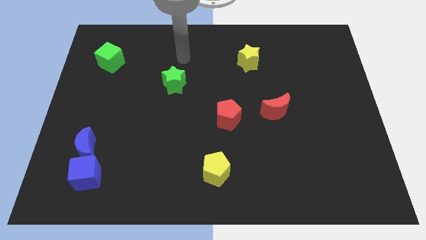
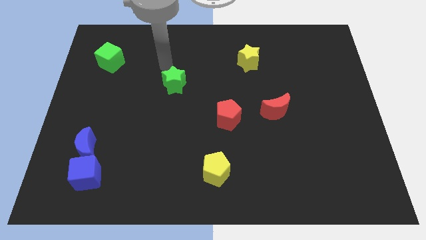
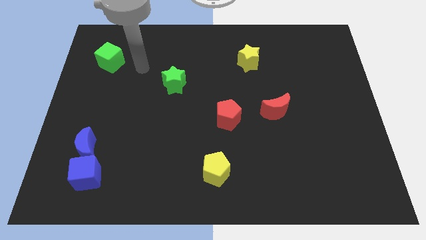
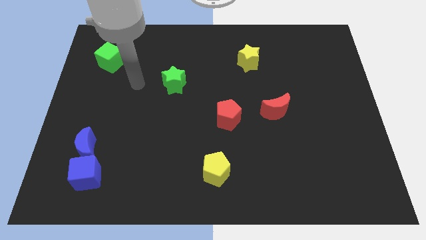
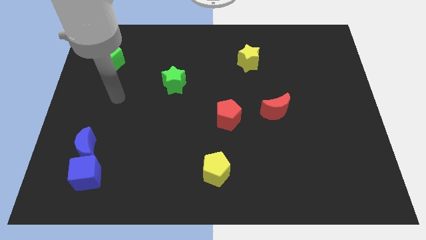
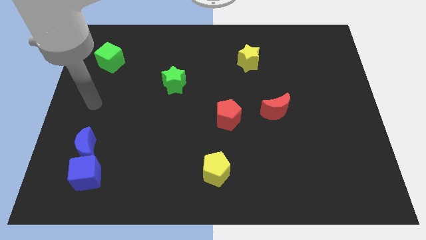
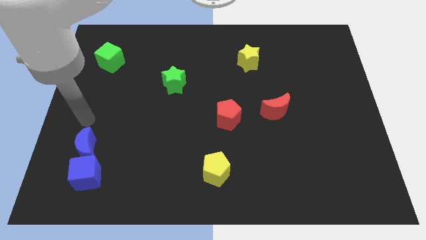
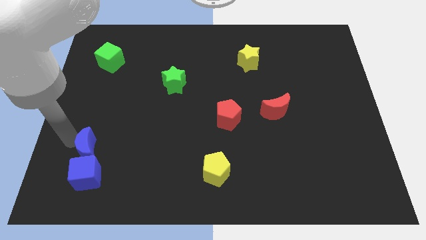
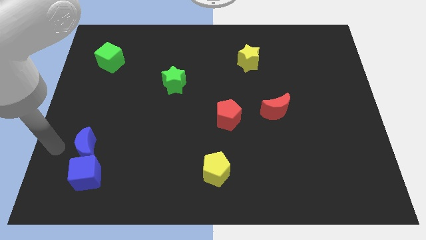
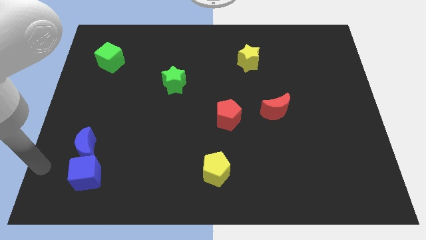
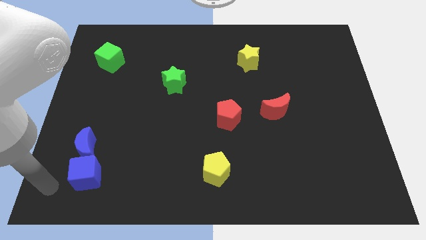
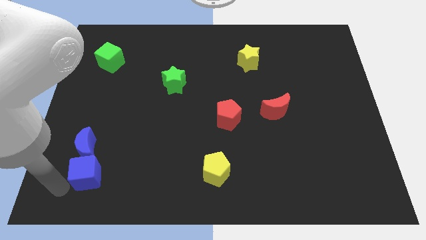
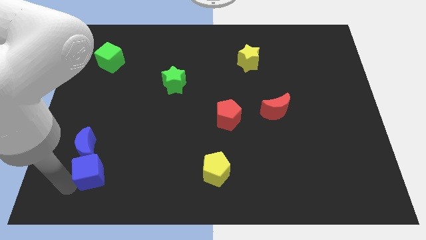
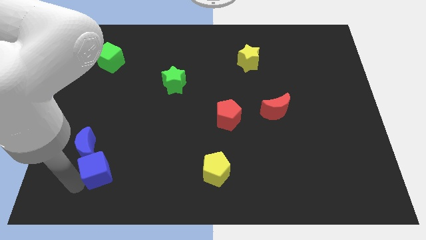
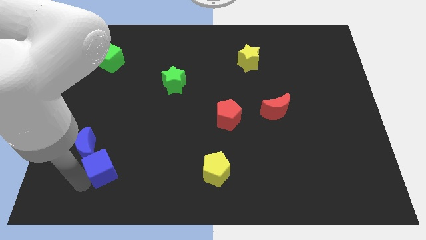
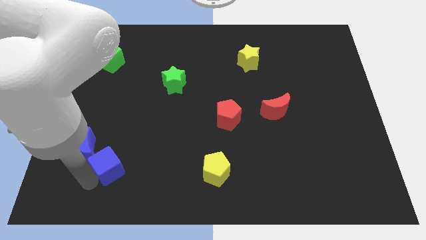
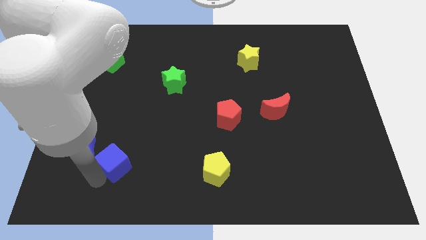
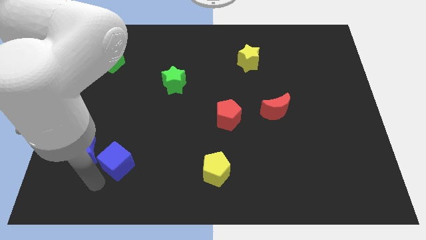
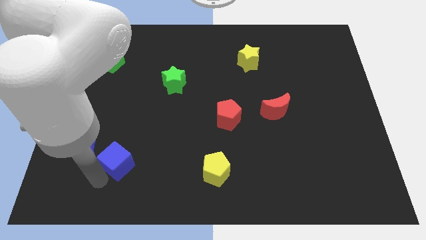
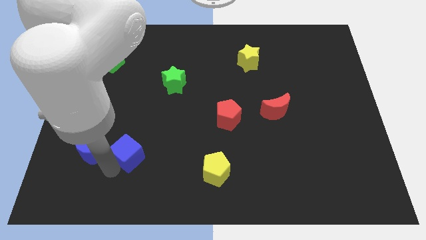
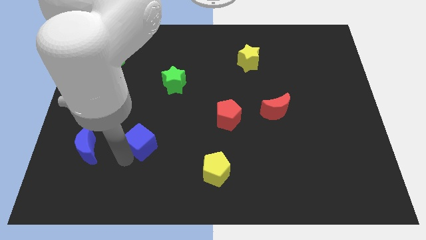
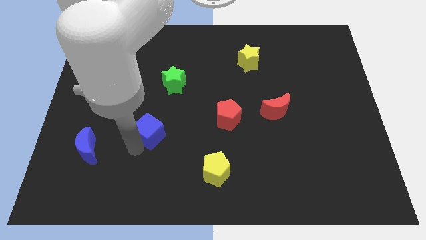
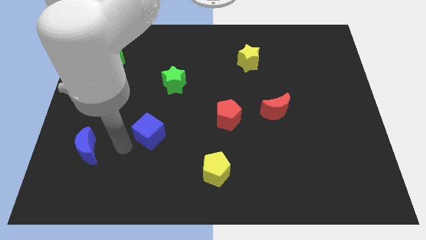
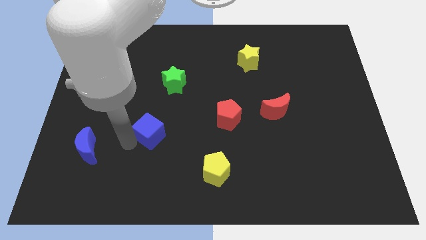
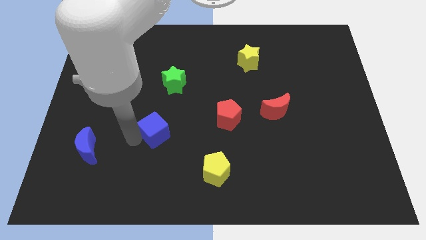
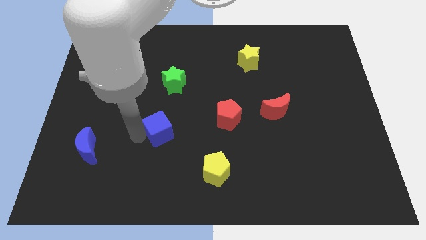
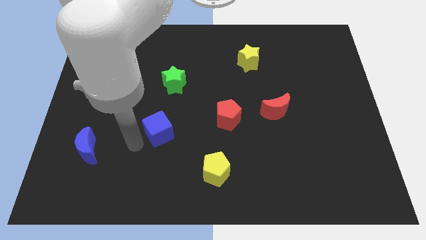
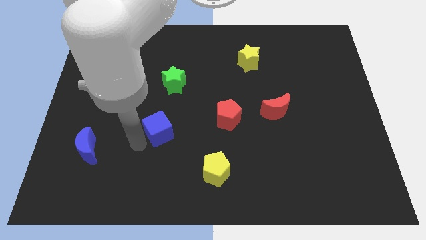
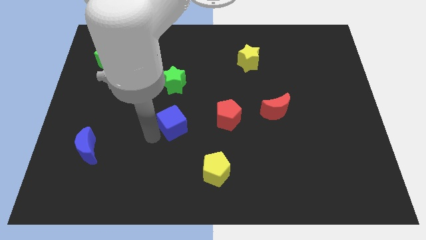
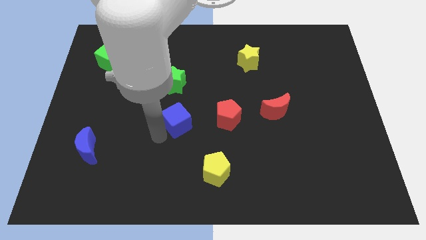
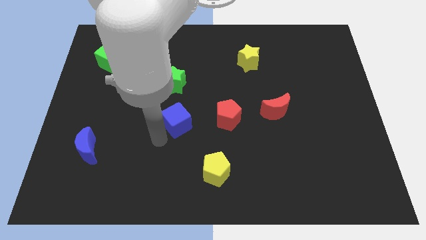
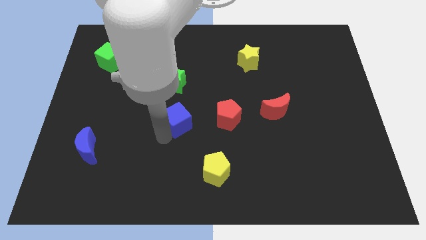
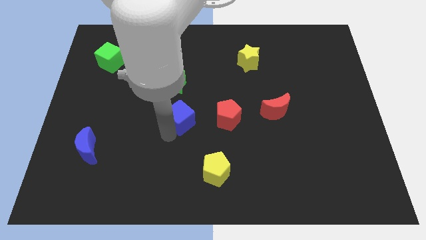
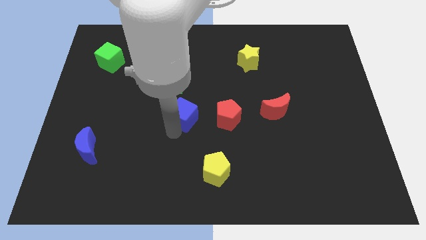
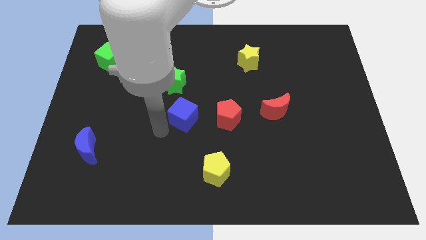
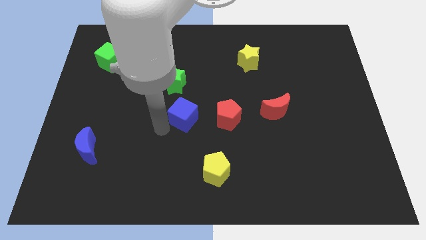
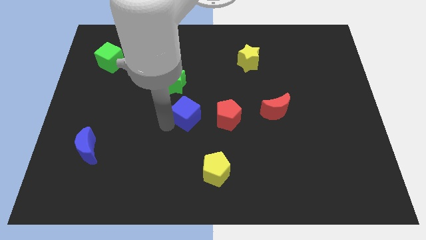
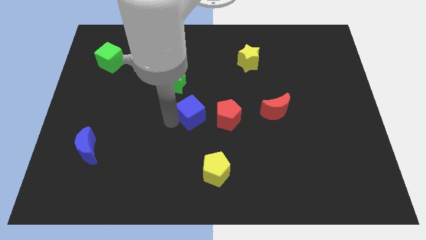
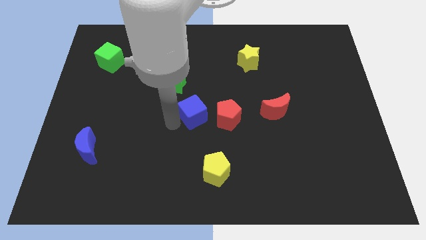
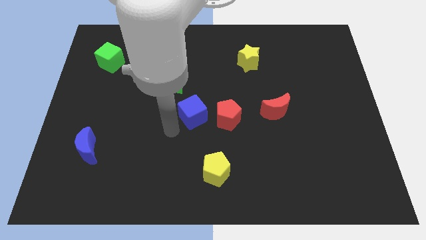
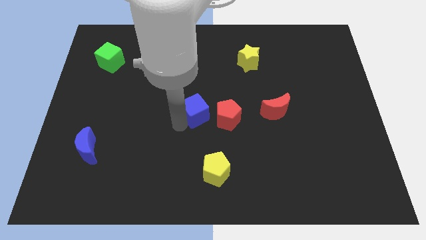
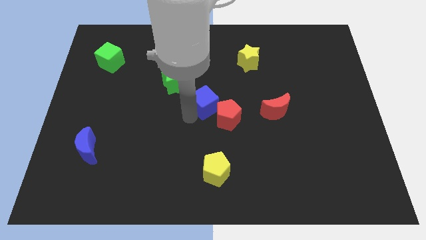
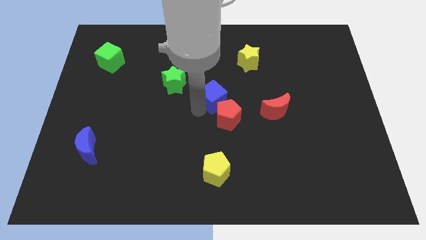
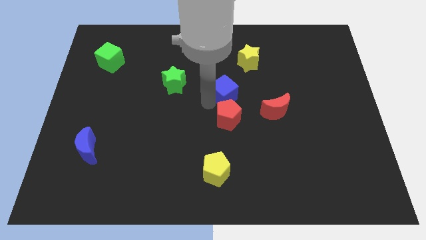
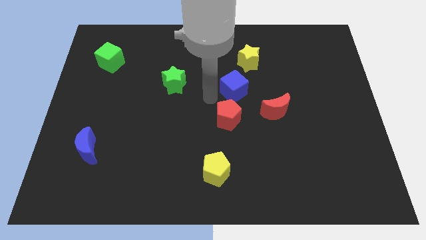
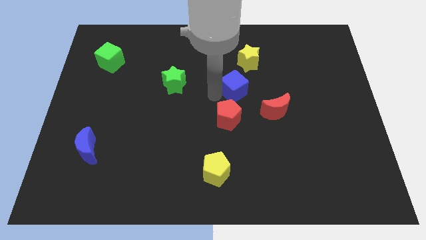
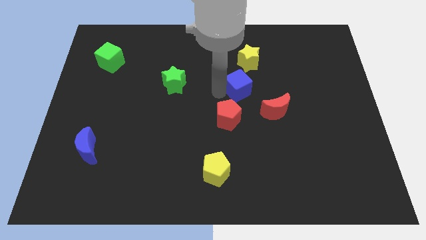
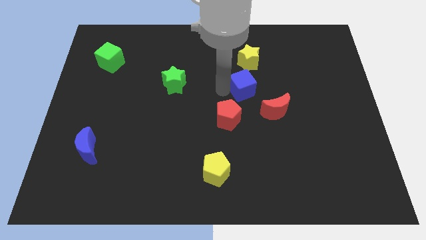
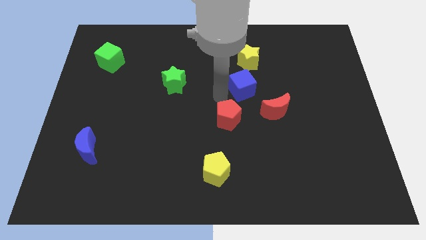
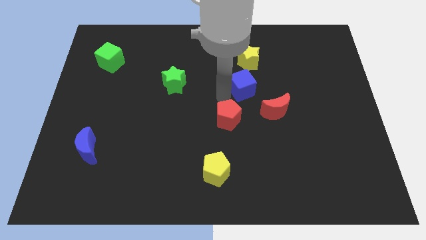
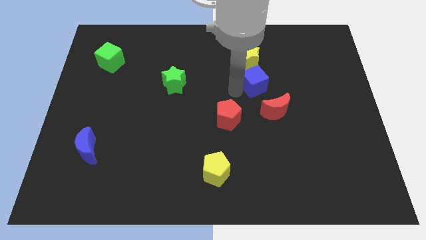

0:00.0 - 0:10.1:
slide the blue cube to the top of the red moon

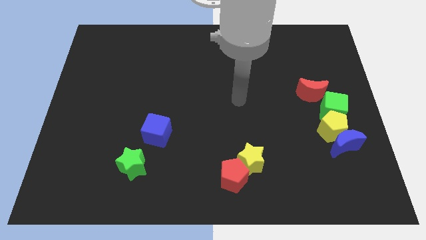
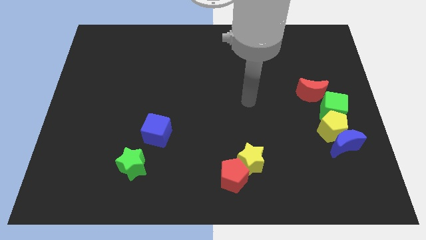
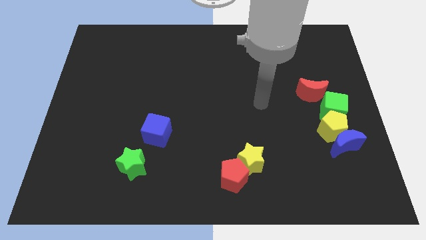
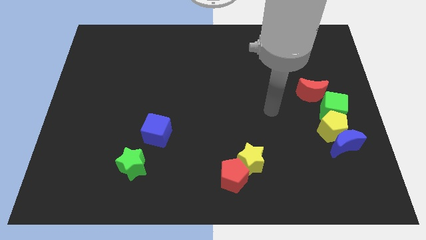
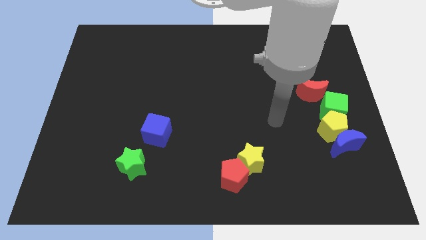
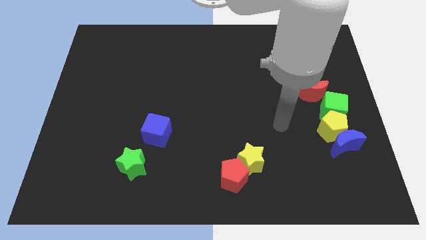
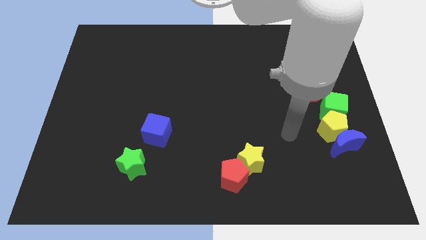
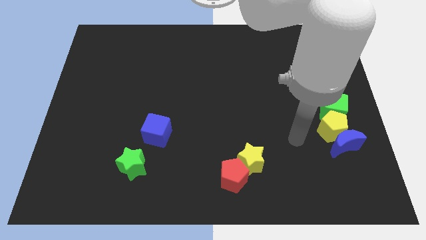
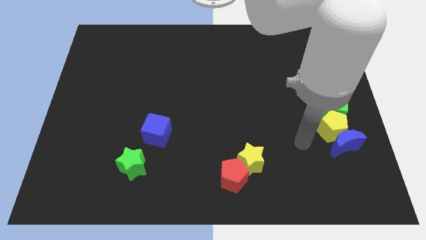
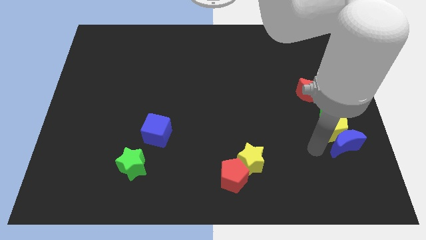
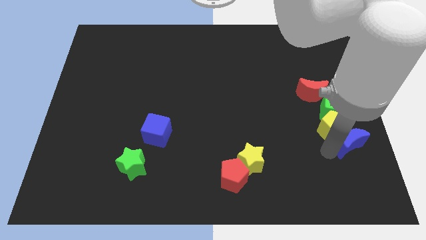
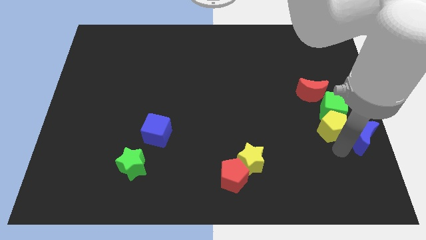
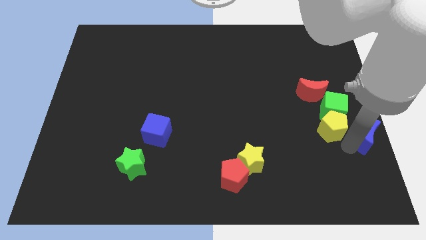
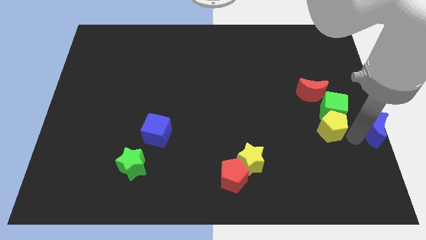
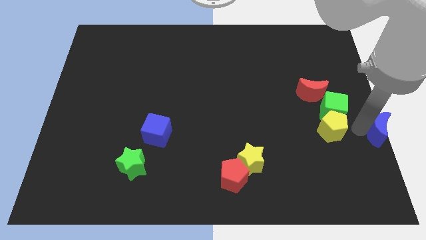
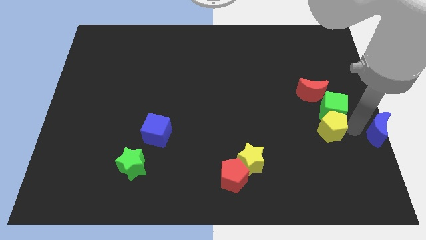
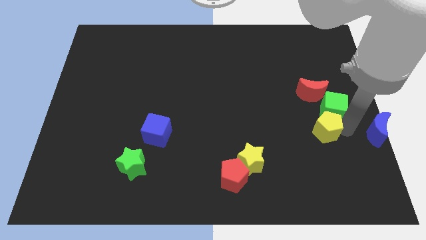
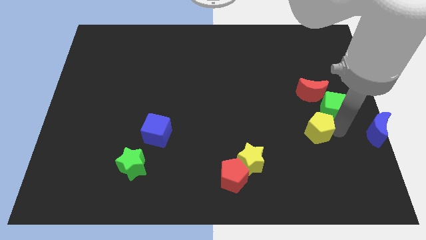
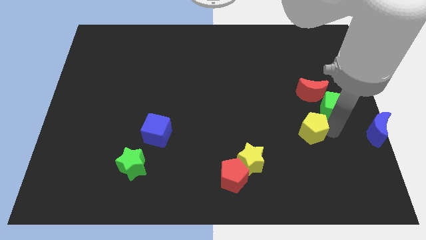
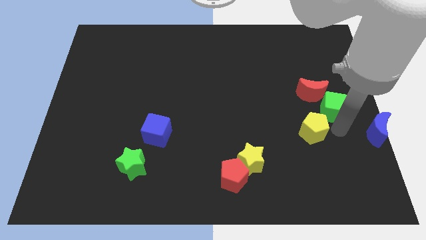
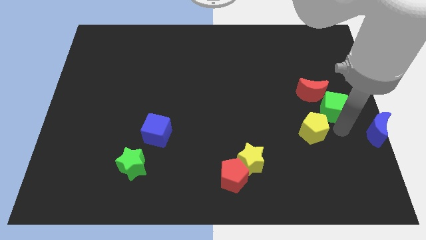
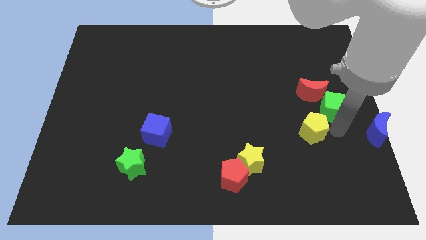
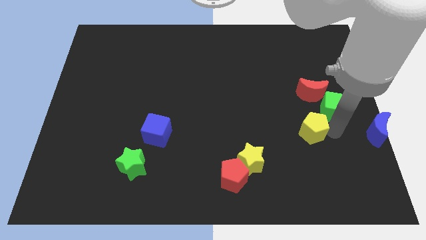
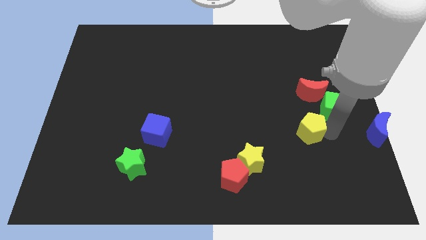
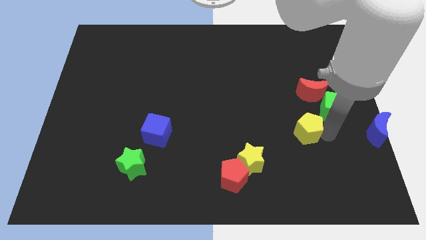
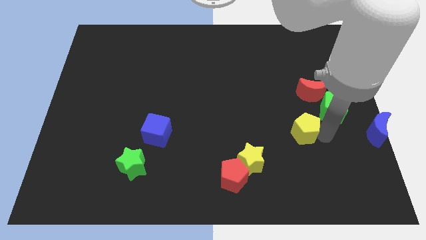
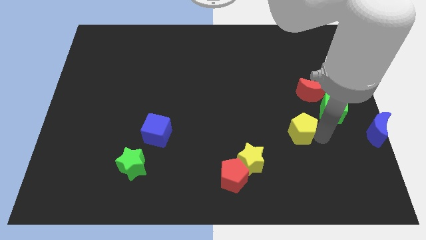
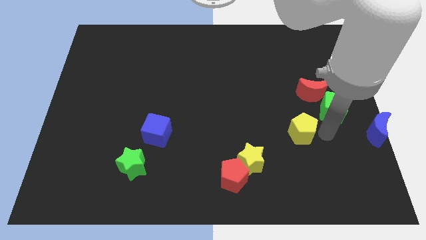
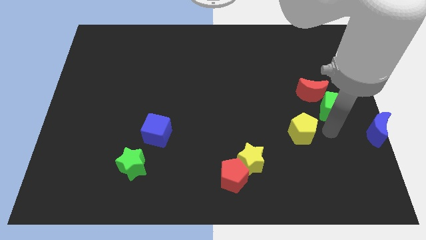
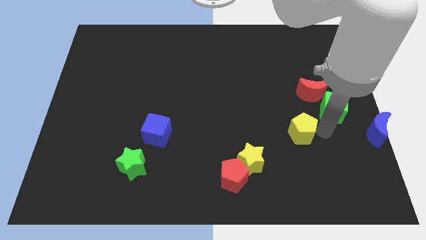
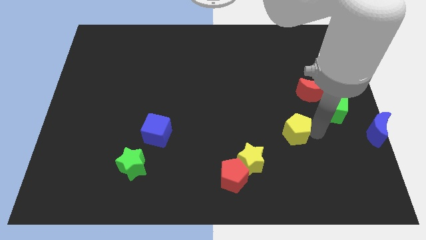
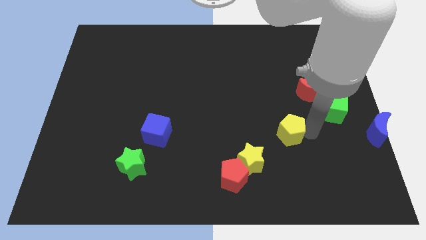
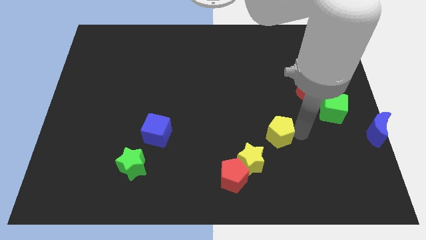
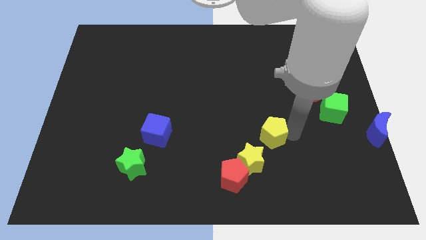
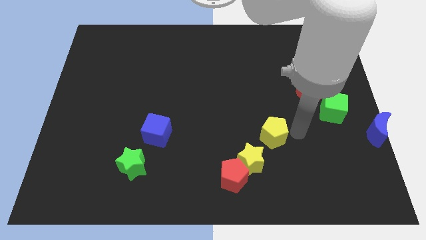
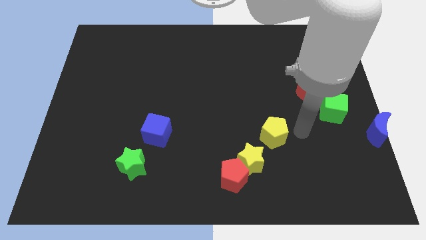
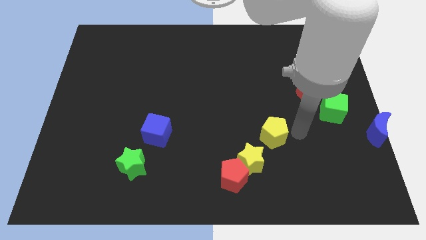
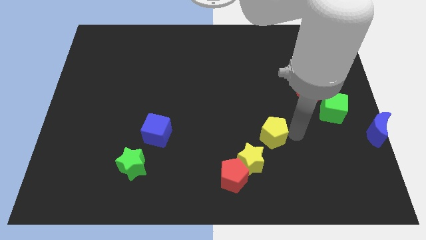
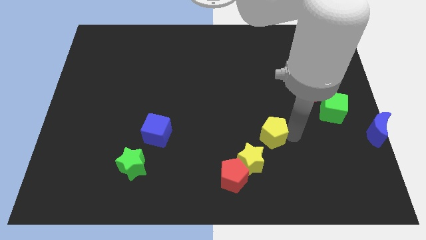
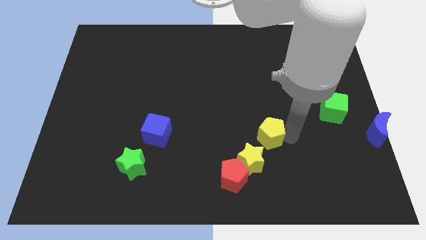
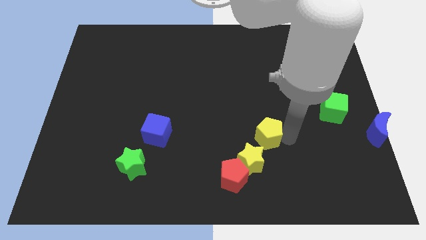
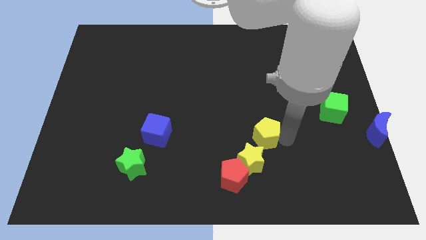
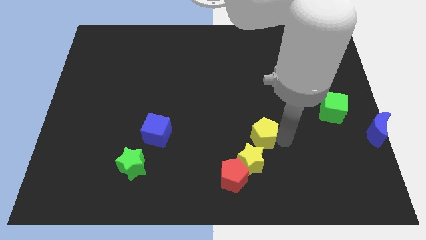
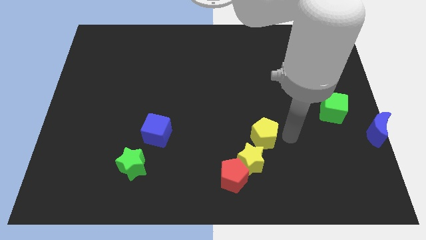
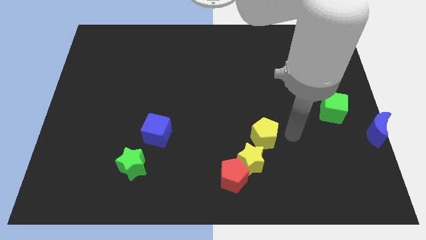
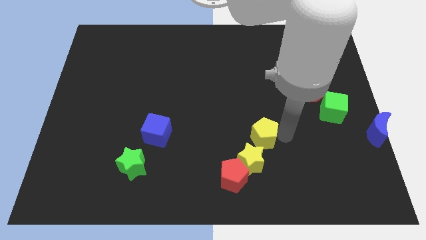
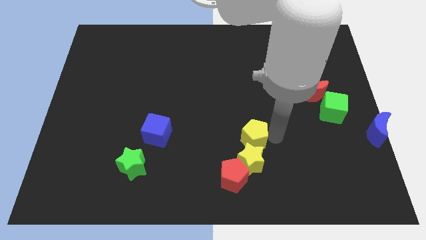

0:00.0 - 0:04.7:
push the yellow pentagon to the top left side of the yellow star
